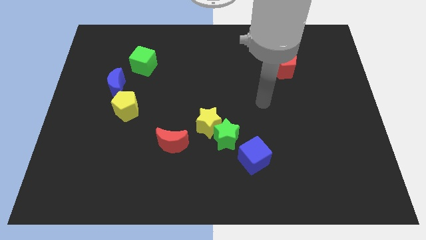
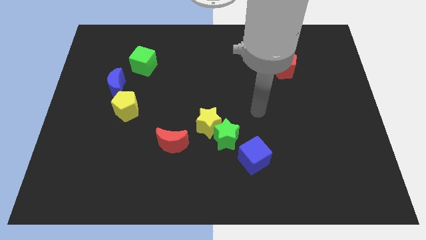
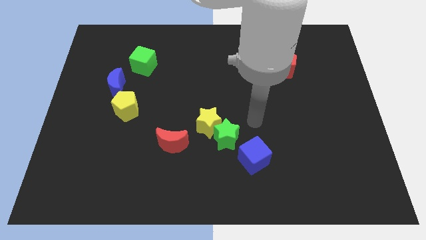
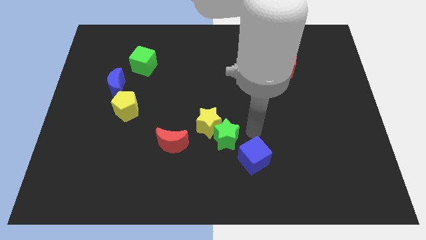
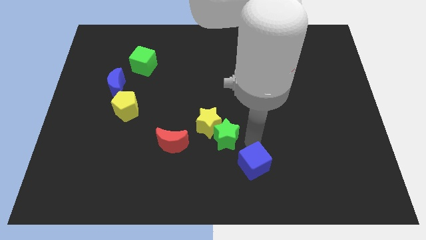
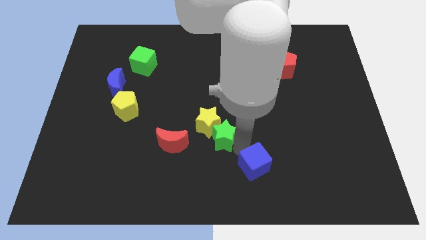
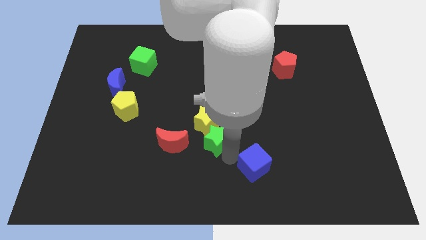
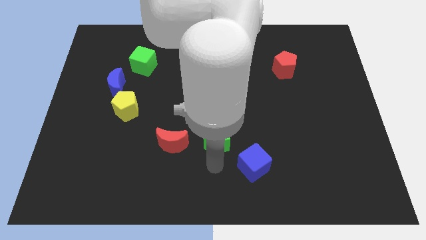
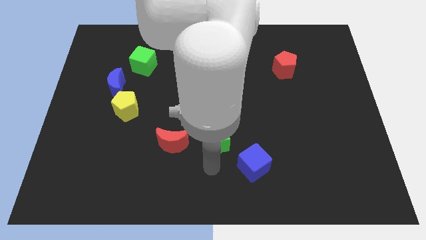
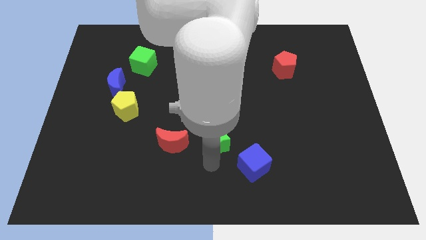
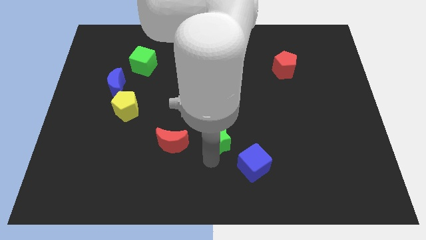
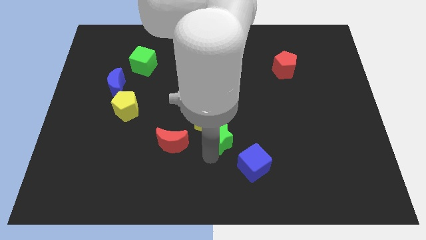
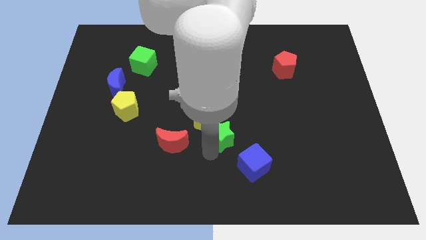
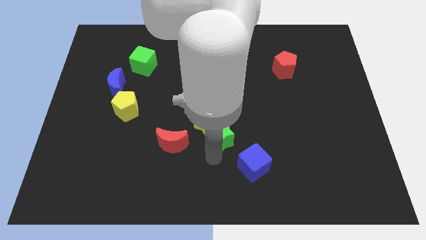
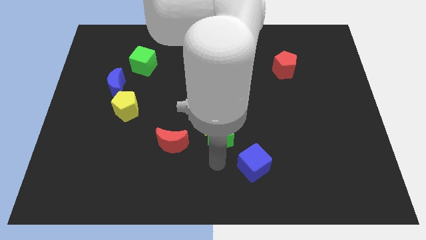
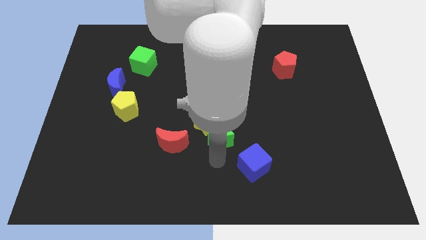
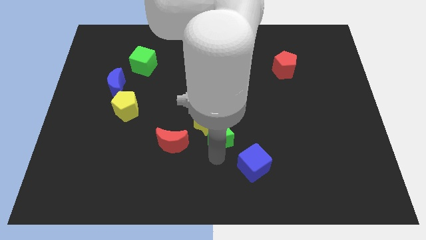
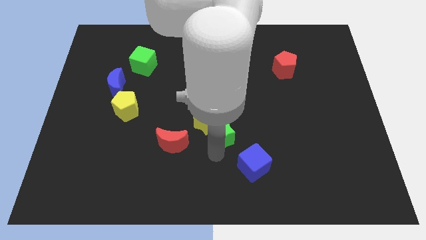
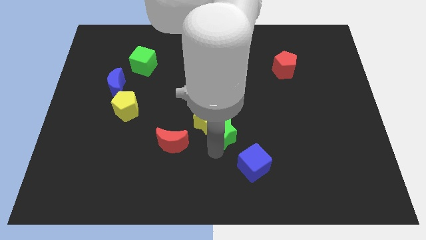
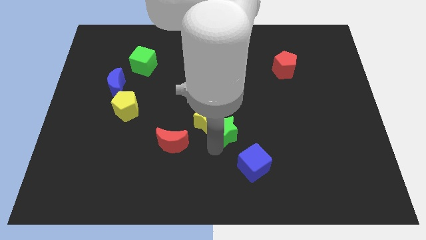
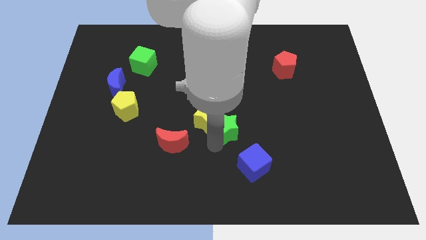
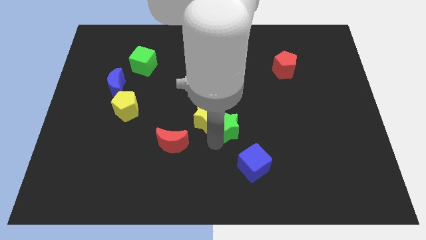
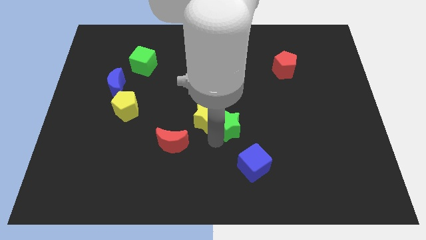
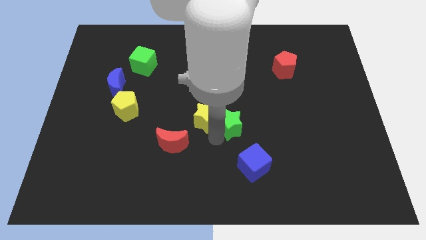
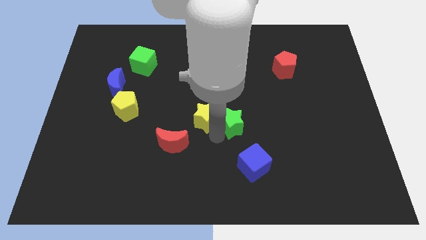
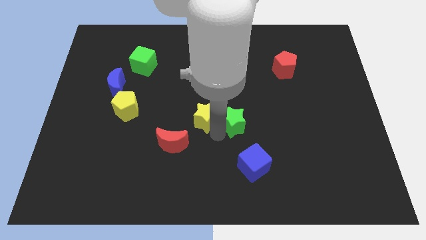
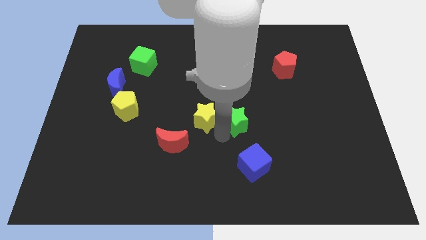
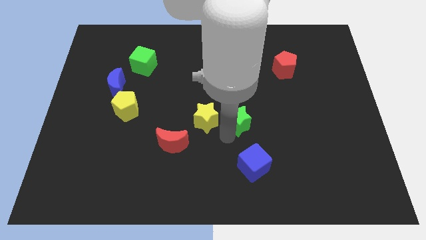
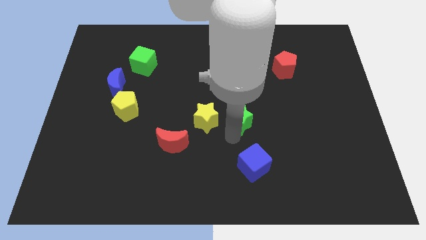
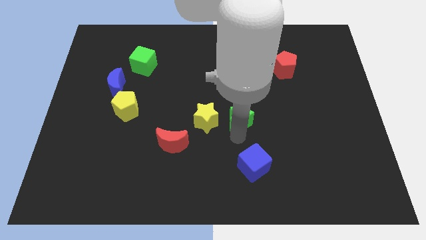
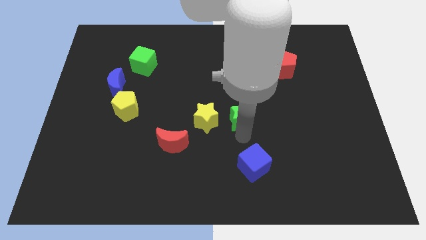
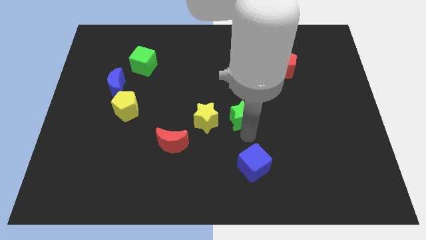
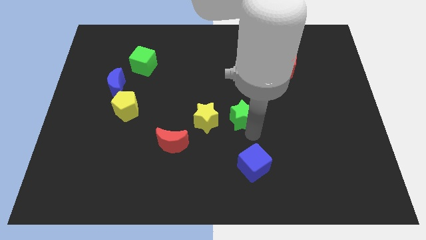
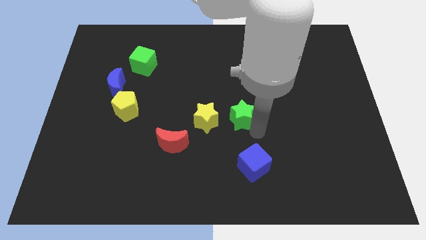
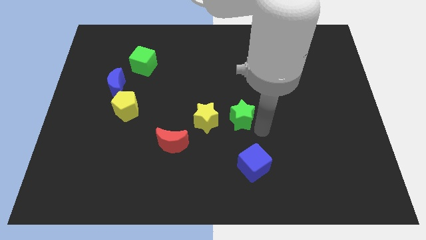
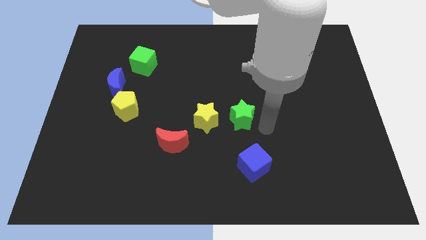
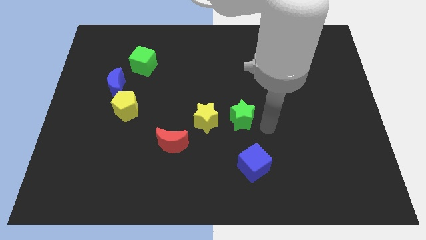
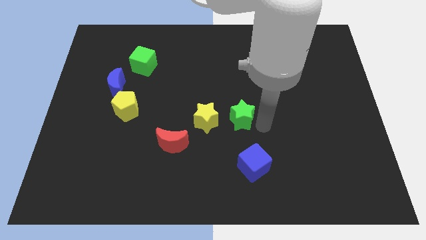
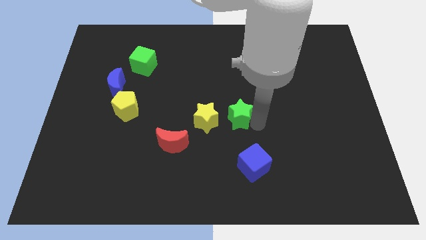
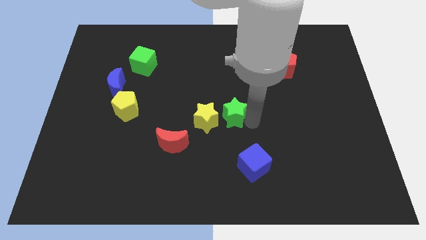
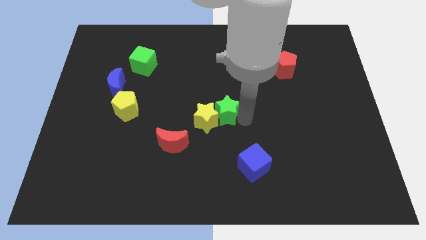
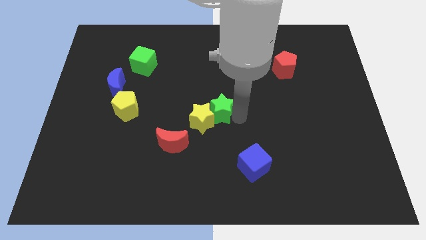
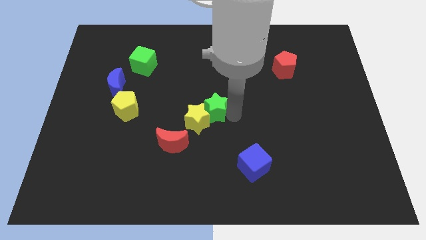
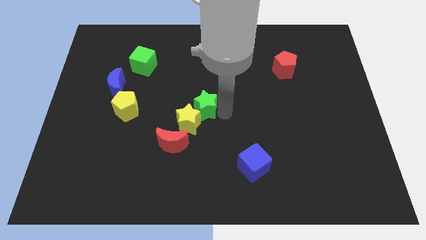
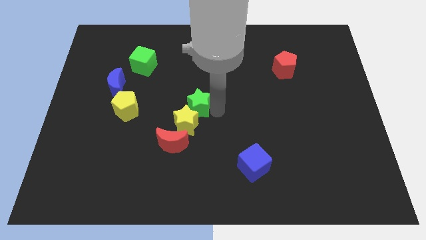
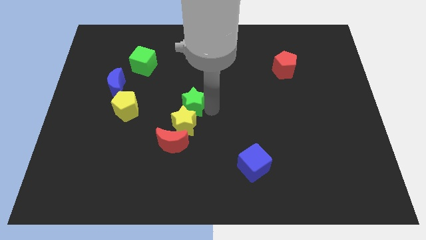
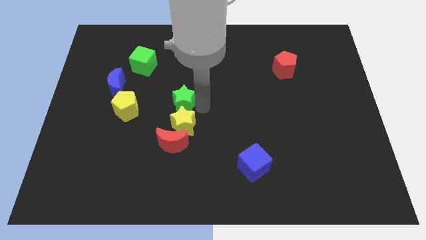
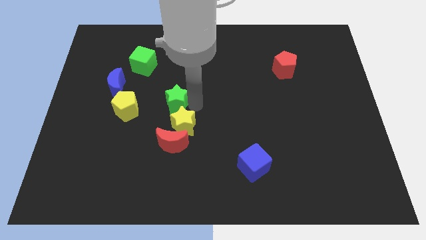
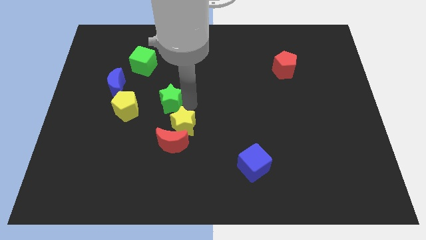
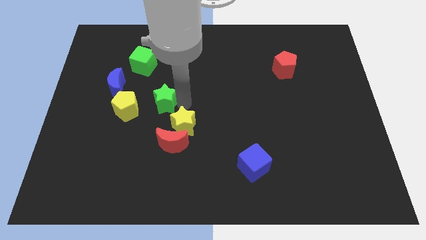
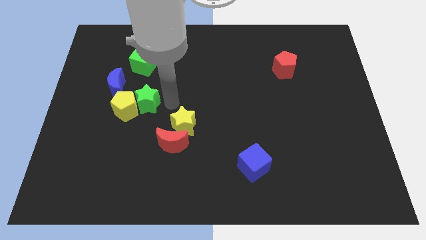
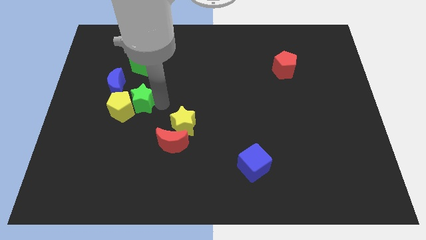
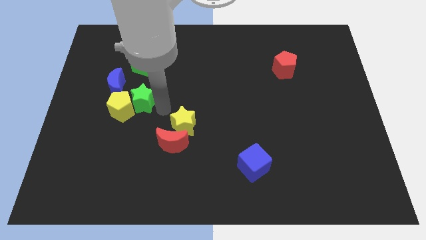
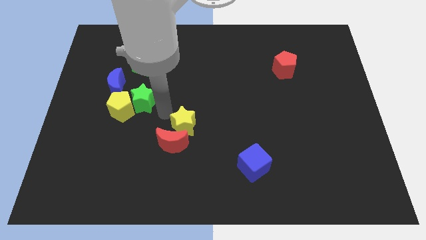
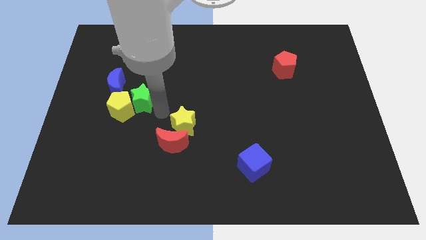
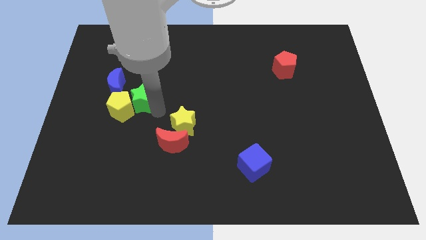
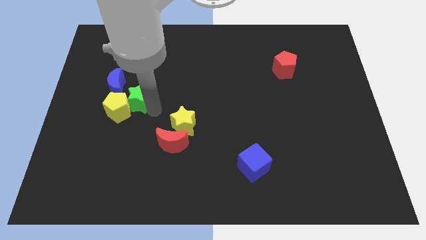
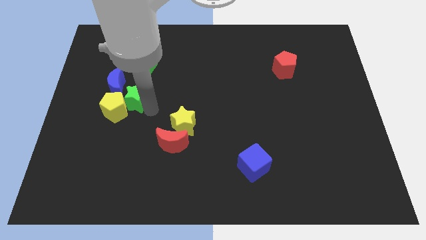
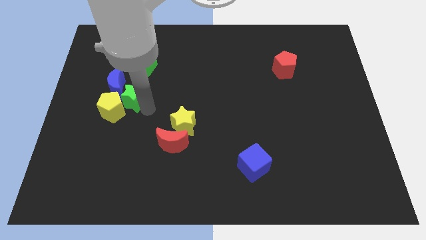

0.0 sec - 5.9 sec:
put the green star close to the blue moon
